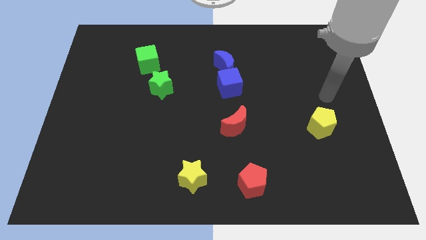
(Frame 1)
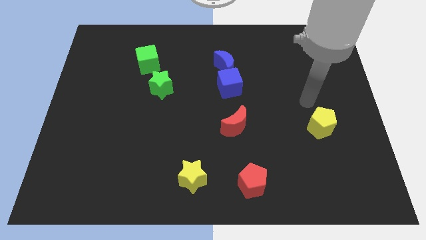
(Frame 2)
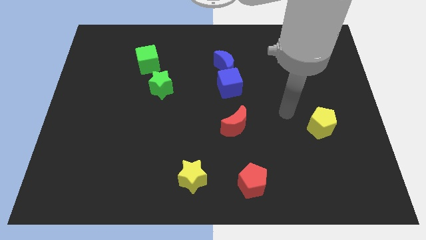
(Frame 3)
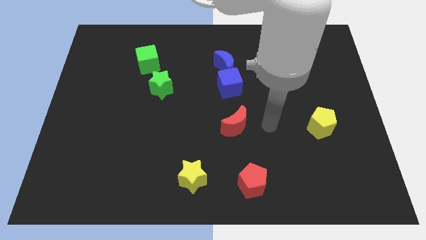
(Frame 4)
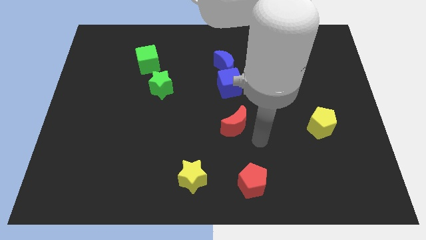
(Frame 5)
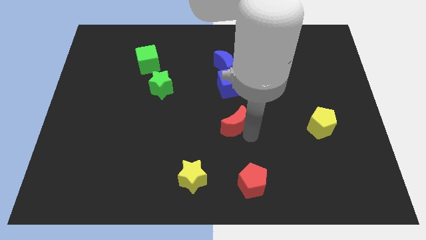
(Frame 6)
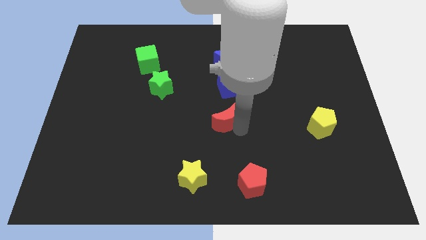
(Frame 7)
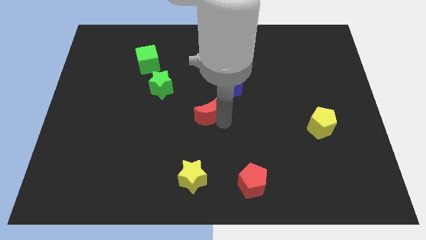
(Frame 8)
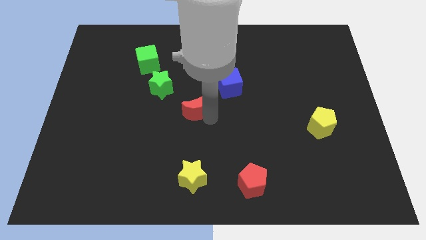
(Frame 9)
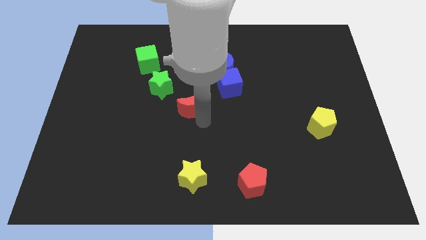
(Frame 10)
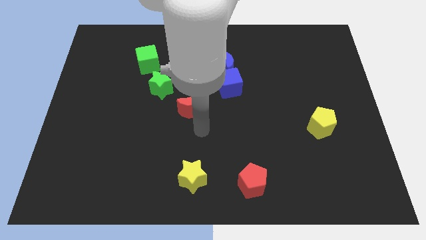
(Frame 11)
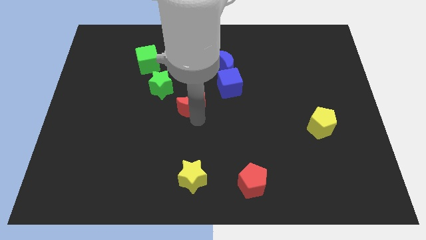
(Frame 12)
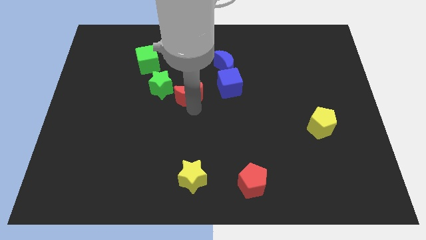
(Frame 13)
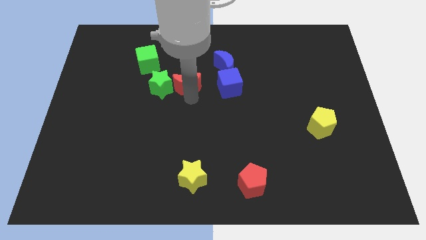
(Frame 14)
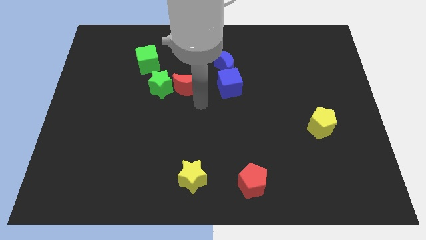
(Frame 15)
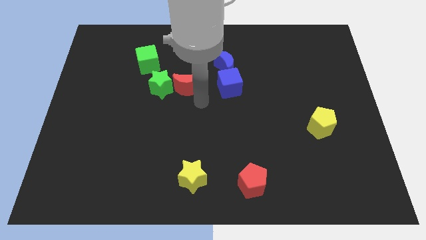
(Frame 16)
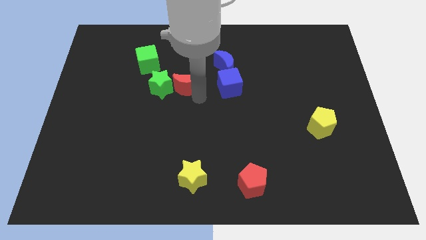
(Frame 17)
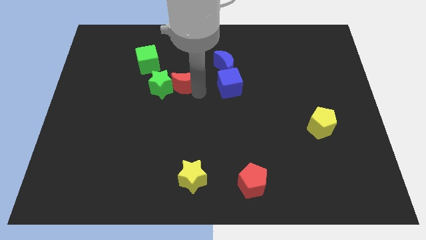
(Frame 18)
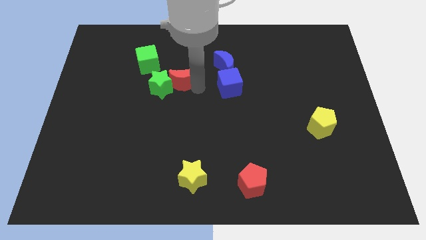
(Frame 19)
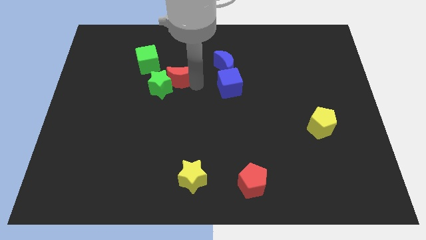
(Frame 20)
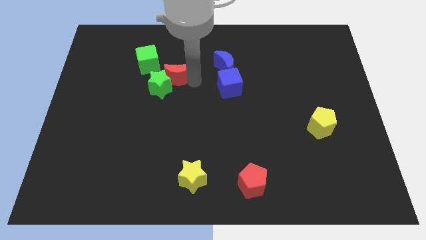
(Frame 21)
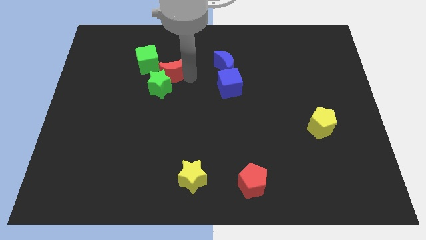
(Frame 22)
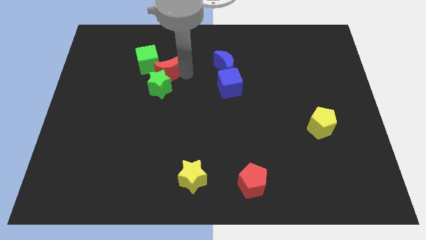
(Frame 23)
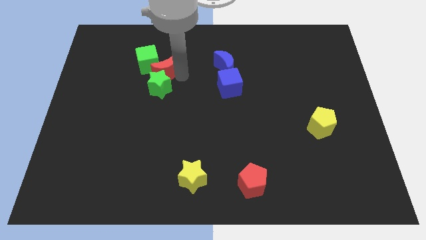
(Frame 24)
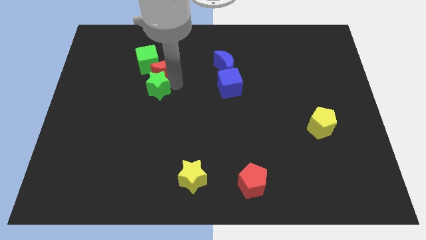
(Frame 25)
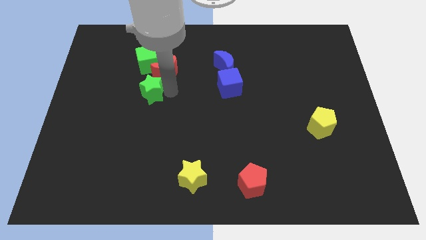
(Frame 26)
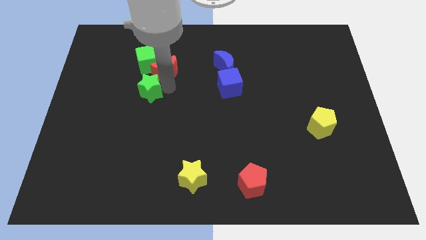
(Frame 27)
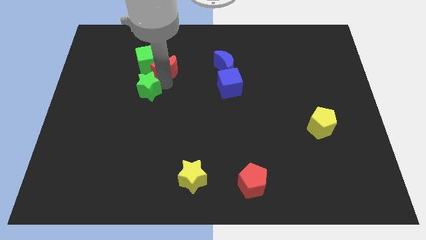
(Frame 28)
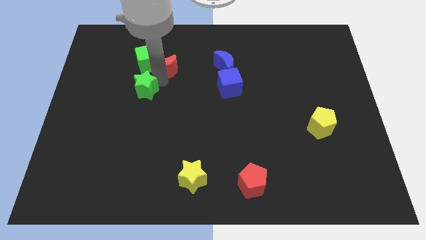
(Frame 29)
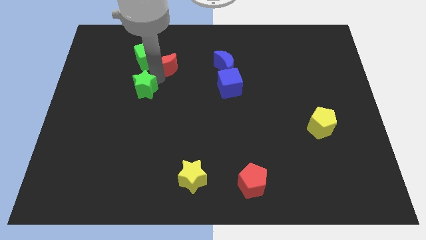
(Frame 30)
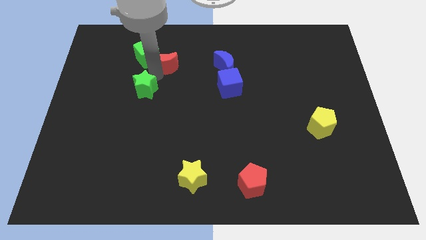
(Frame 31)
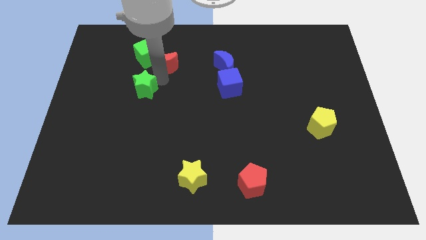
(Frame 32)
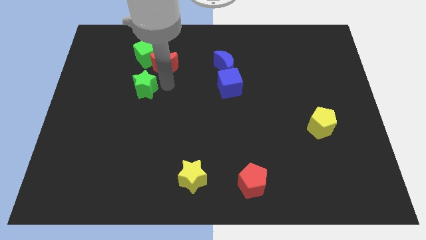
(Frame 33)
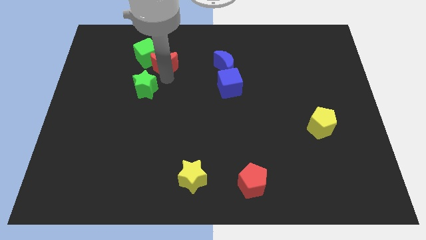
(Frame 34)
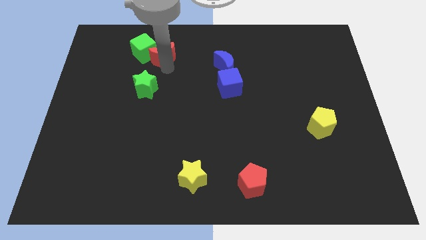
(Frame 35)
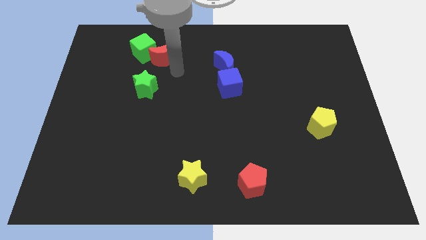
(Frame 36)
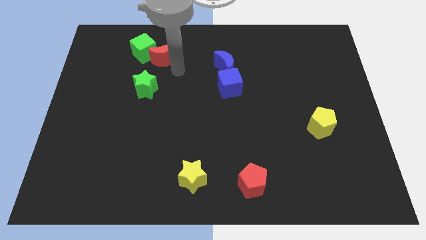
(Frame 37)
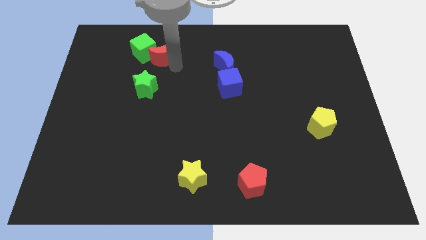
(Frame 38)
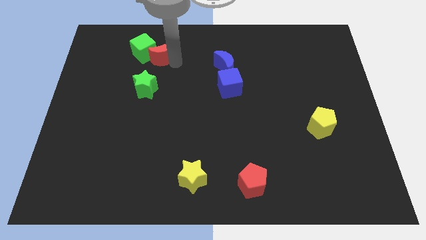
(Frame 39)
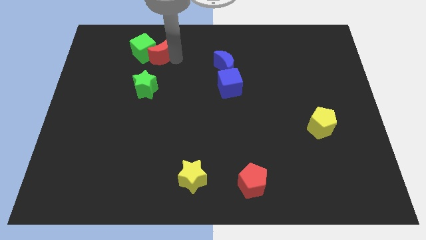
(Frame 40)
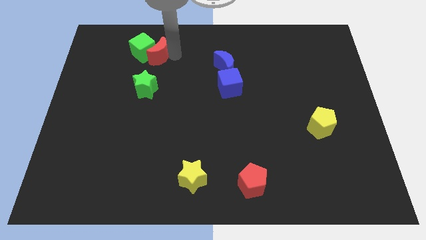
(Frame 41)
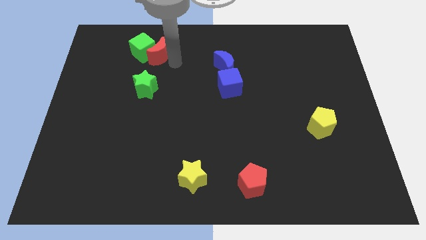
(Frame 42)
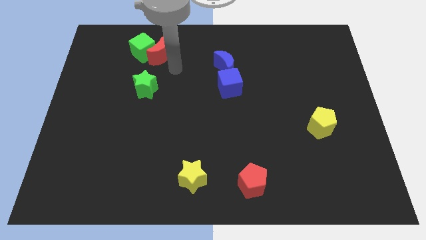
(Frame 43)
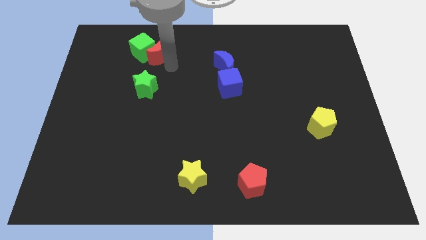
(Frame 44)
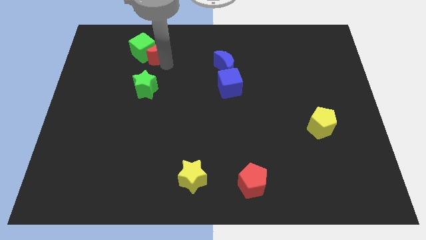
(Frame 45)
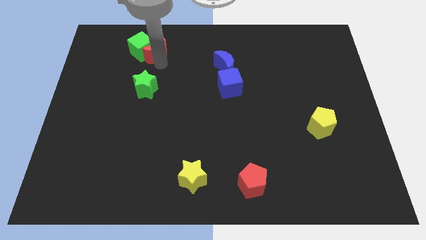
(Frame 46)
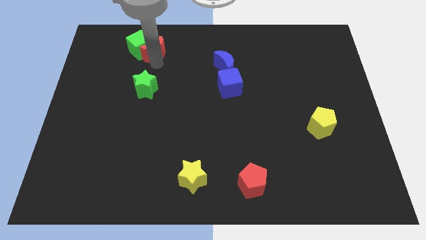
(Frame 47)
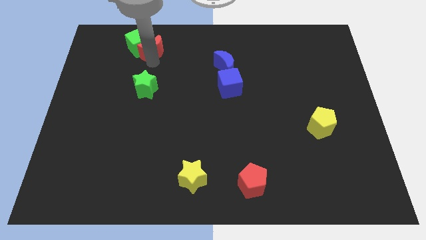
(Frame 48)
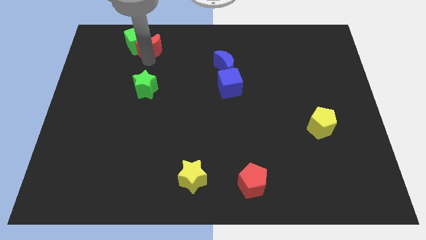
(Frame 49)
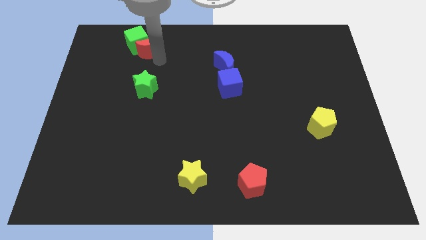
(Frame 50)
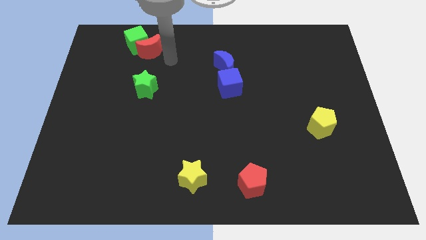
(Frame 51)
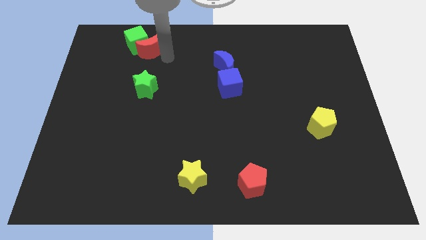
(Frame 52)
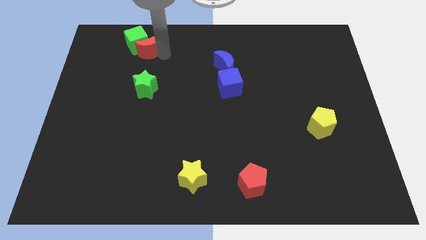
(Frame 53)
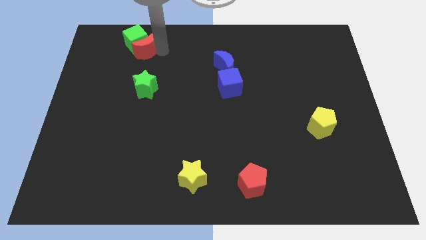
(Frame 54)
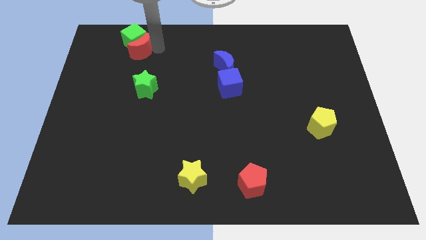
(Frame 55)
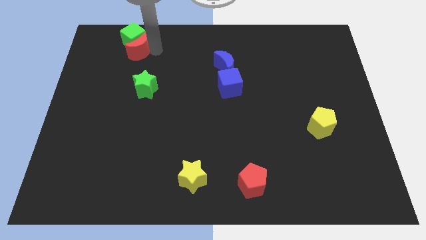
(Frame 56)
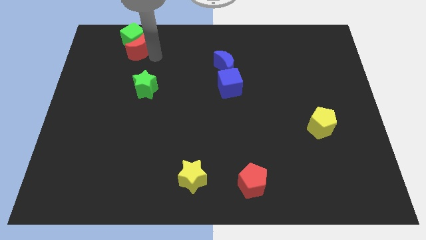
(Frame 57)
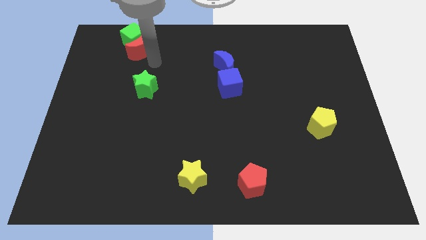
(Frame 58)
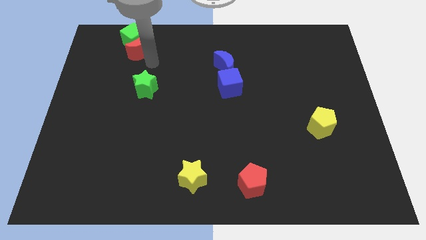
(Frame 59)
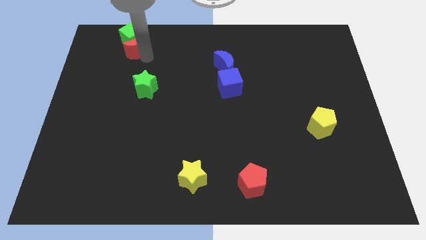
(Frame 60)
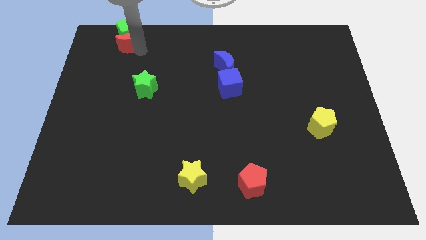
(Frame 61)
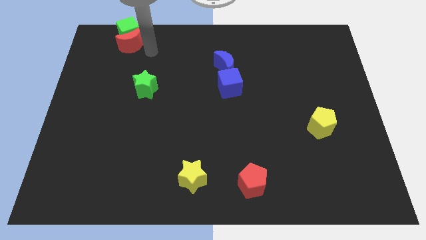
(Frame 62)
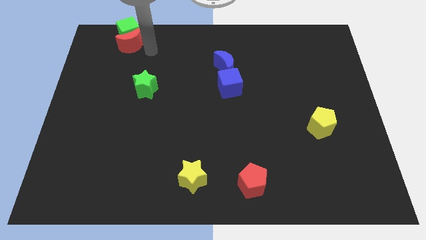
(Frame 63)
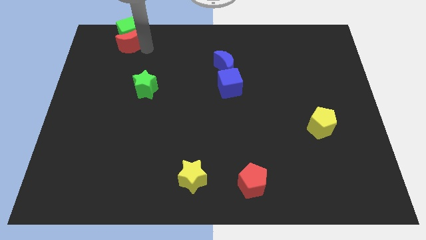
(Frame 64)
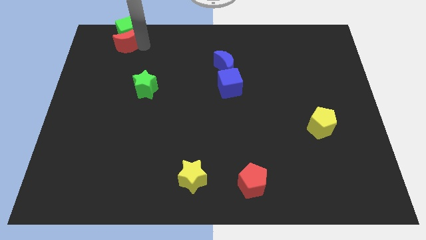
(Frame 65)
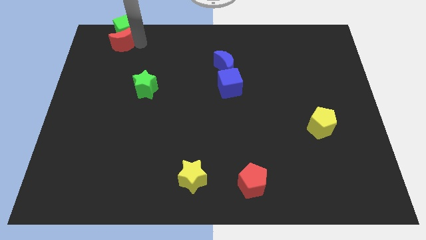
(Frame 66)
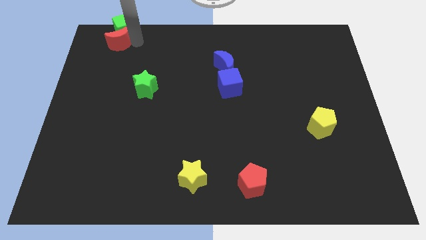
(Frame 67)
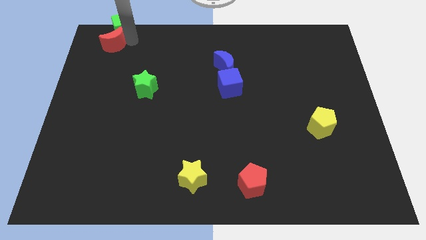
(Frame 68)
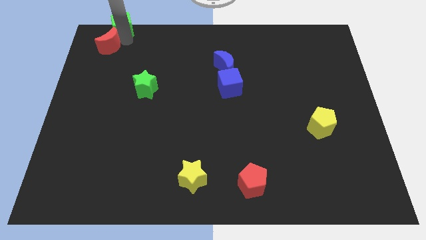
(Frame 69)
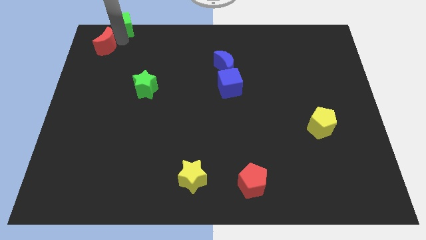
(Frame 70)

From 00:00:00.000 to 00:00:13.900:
put the red moon to the upper left corner
